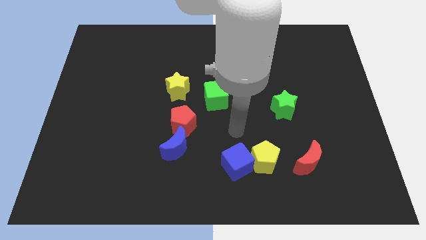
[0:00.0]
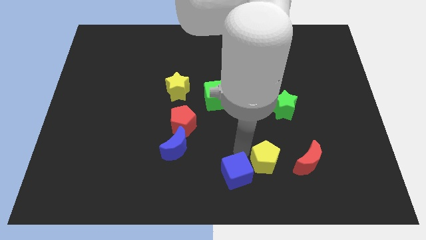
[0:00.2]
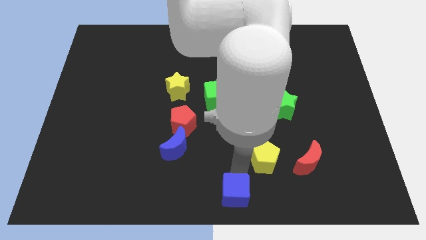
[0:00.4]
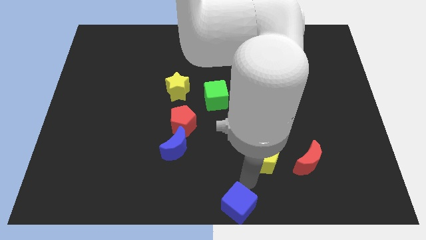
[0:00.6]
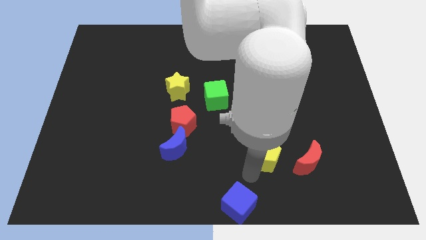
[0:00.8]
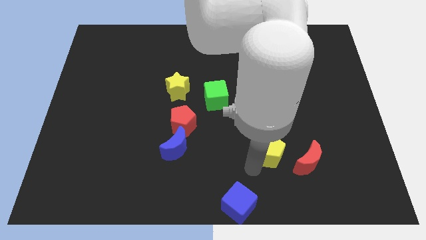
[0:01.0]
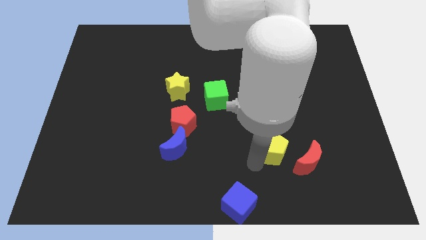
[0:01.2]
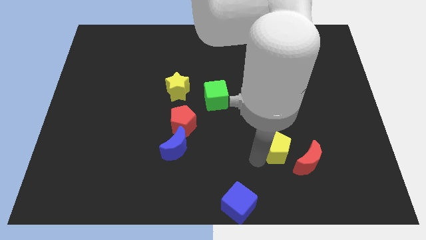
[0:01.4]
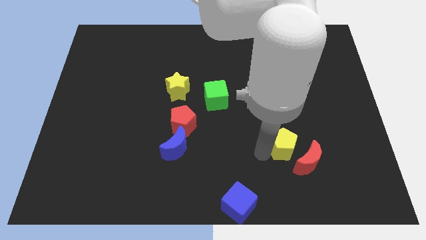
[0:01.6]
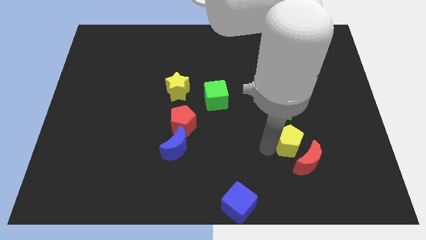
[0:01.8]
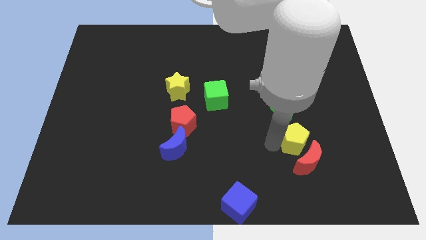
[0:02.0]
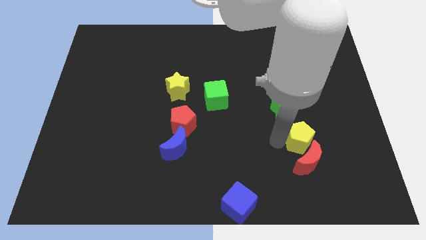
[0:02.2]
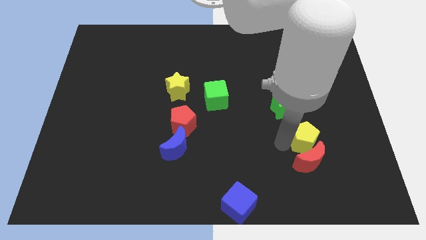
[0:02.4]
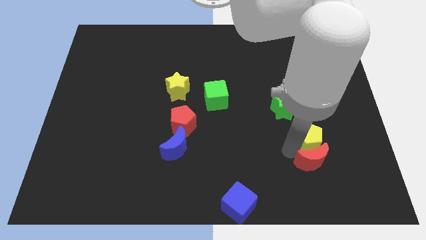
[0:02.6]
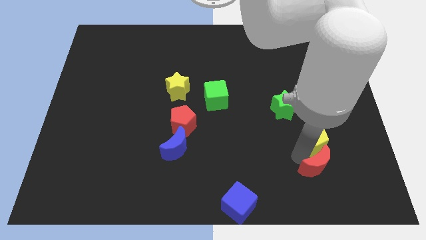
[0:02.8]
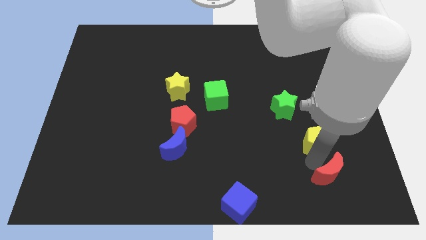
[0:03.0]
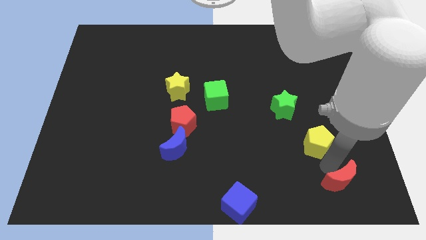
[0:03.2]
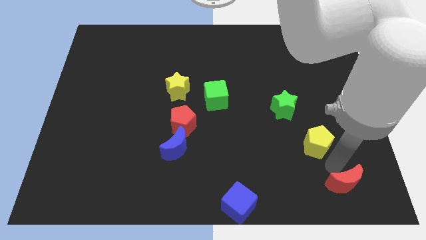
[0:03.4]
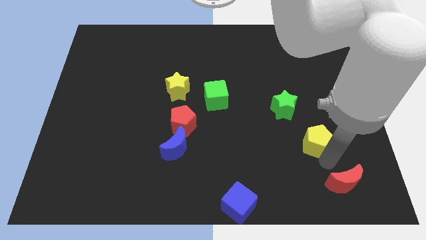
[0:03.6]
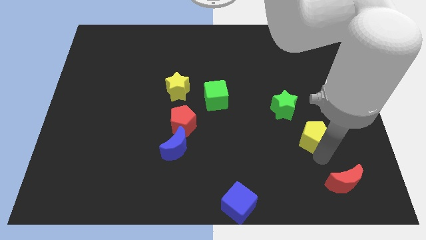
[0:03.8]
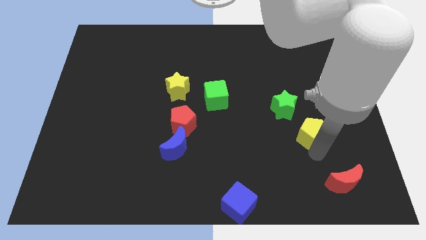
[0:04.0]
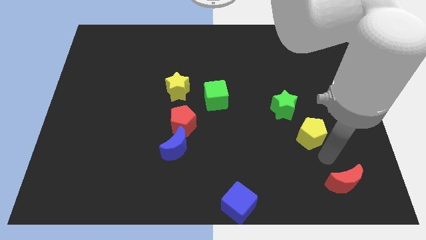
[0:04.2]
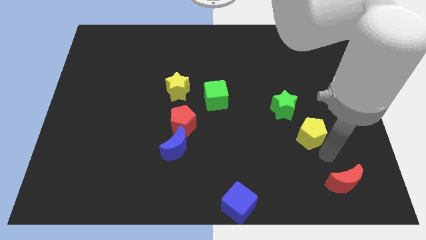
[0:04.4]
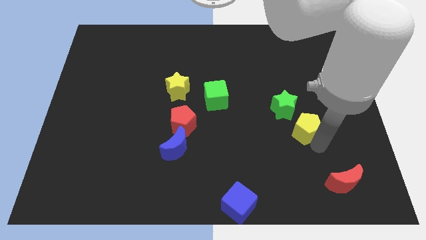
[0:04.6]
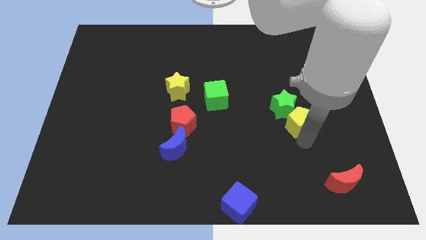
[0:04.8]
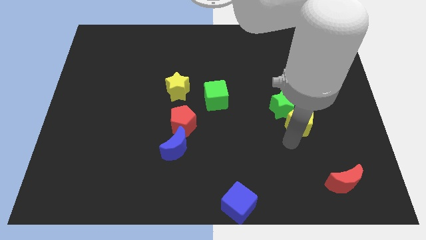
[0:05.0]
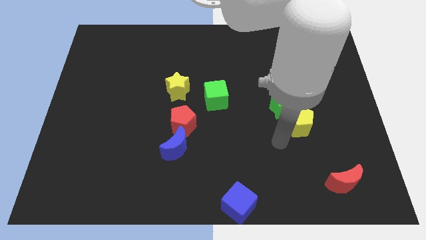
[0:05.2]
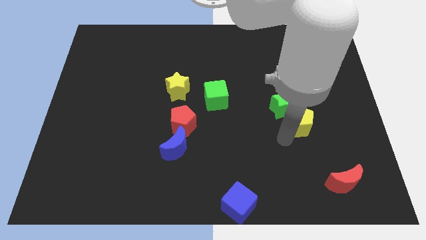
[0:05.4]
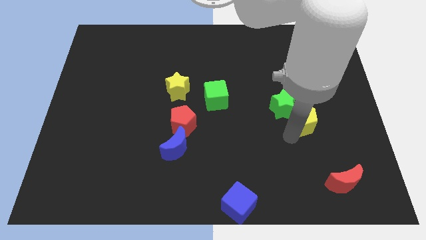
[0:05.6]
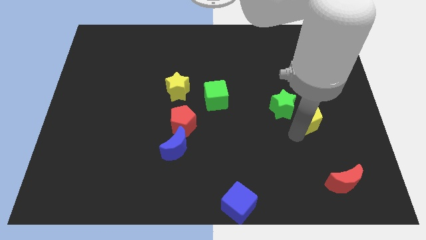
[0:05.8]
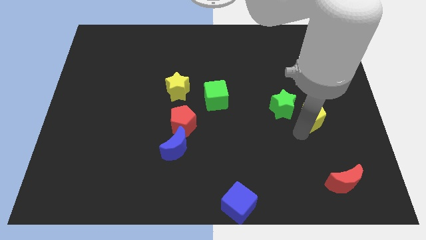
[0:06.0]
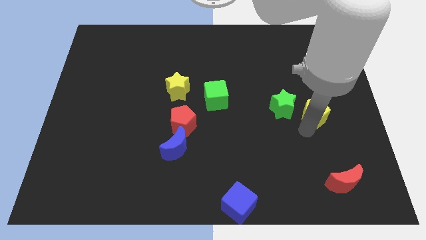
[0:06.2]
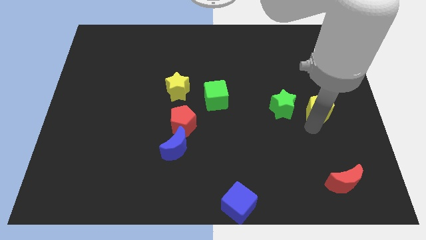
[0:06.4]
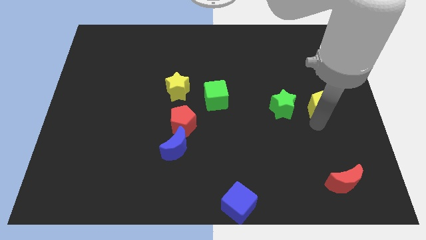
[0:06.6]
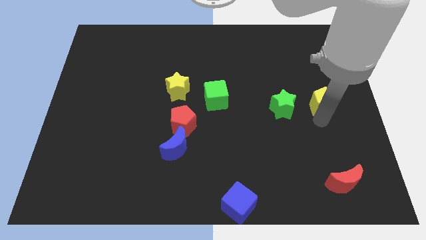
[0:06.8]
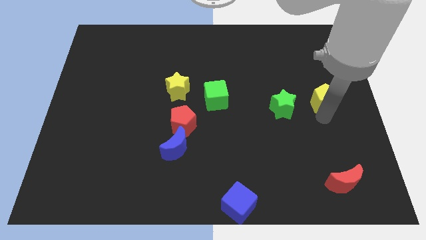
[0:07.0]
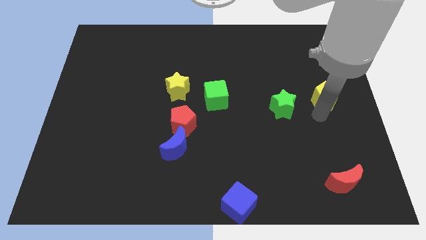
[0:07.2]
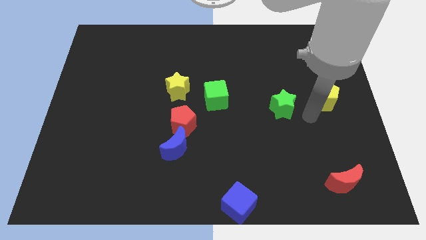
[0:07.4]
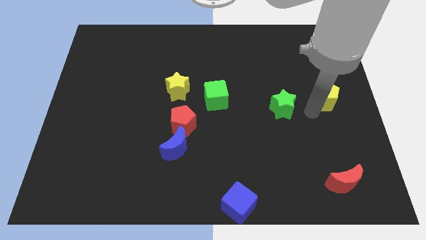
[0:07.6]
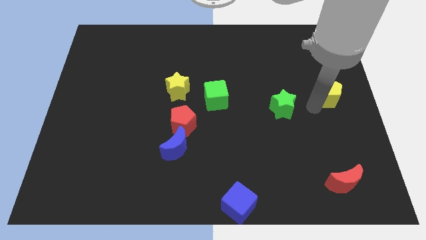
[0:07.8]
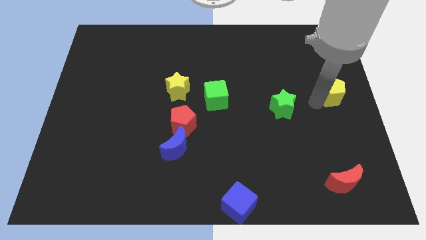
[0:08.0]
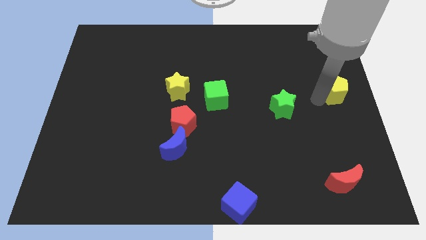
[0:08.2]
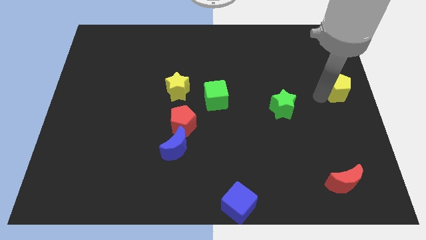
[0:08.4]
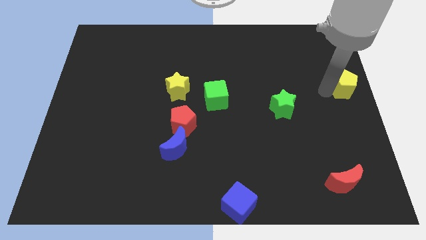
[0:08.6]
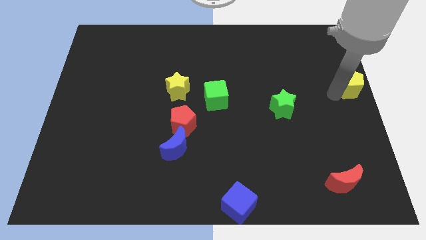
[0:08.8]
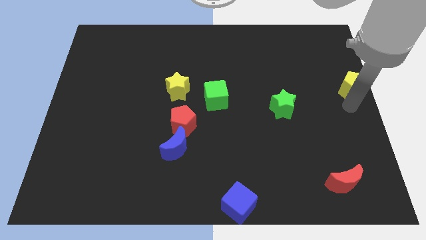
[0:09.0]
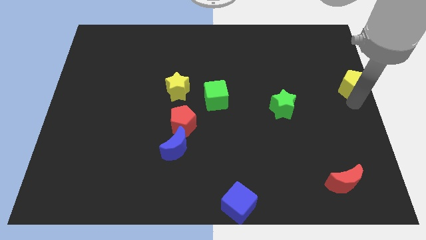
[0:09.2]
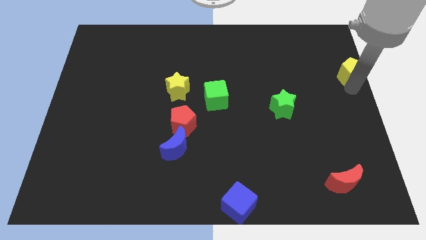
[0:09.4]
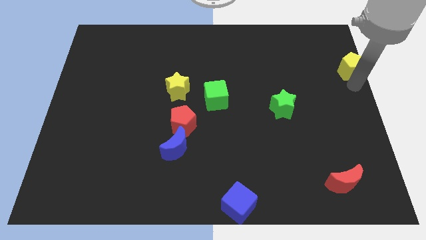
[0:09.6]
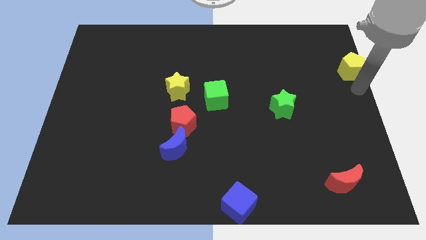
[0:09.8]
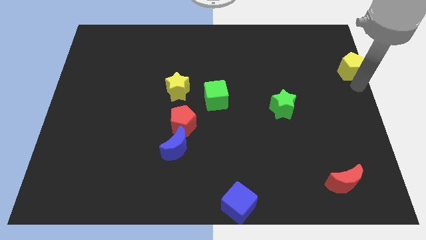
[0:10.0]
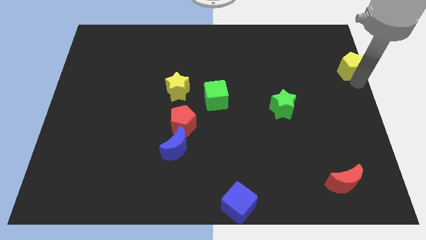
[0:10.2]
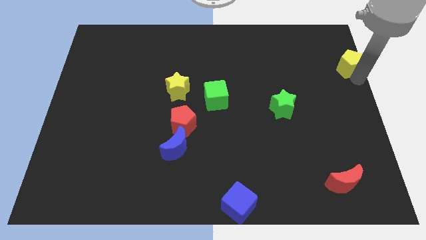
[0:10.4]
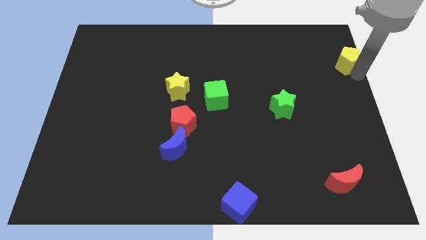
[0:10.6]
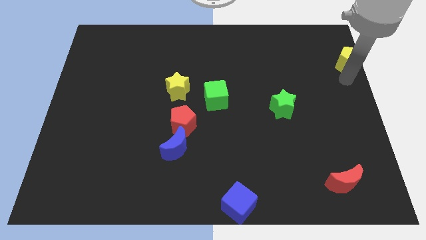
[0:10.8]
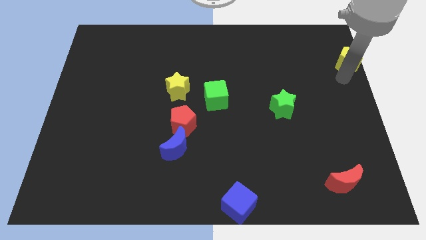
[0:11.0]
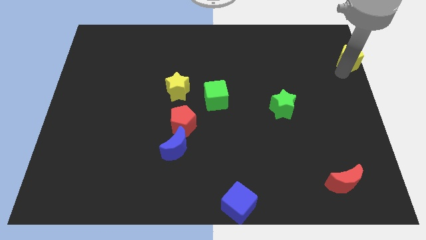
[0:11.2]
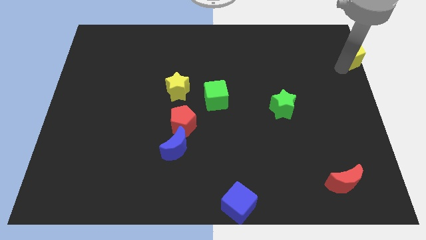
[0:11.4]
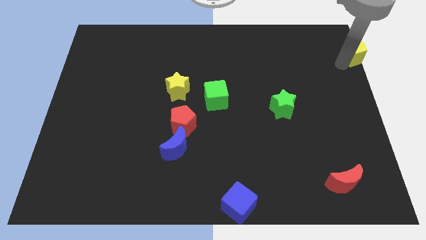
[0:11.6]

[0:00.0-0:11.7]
put the yellow pentagon to the top right corner

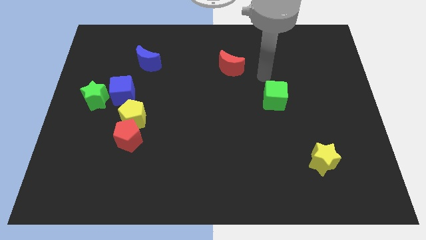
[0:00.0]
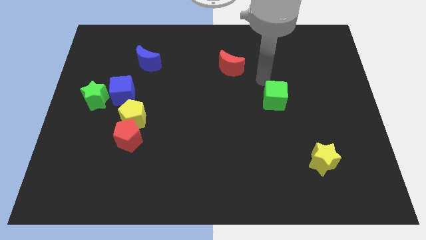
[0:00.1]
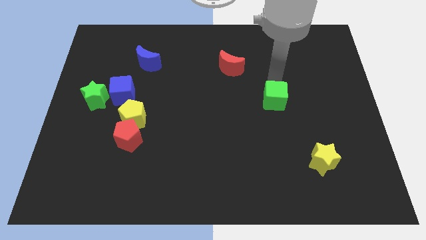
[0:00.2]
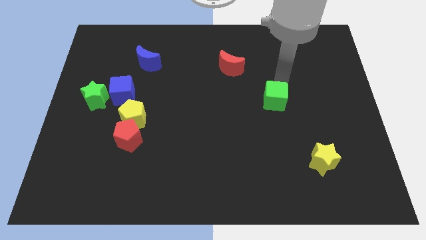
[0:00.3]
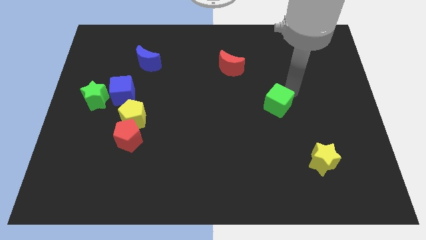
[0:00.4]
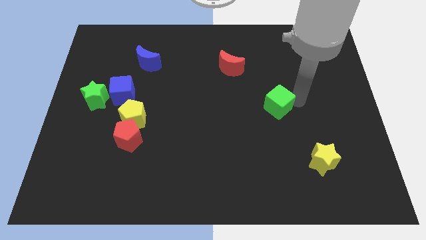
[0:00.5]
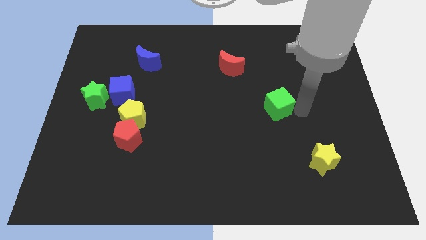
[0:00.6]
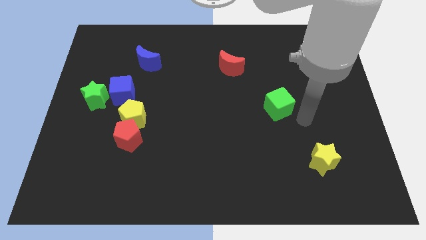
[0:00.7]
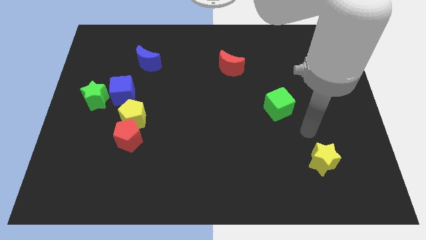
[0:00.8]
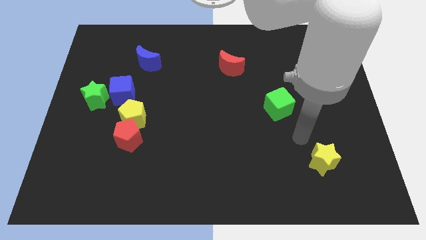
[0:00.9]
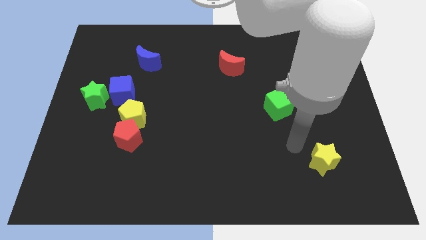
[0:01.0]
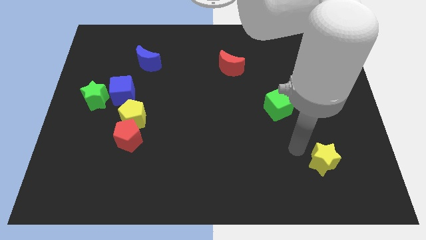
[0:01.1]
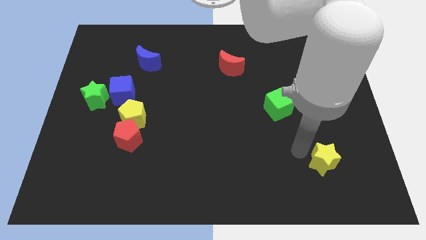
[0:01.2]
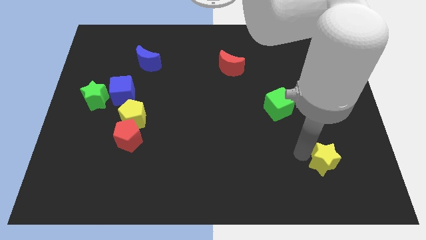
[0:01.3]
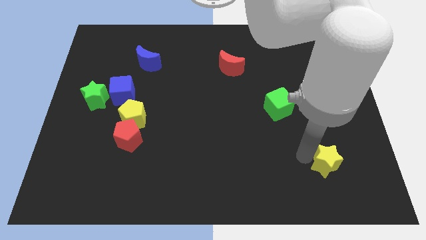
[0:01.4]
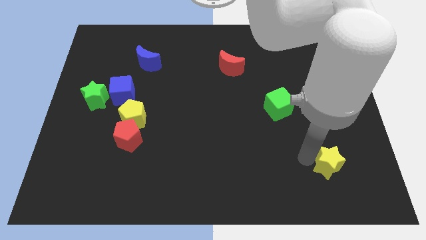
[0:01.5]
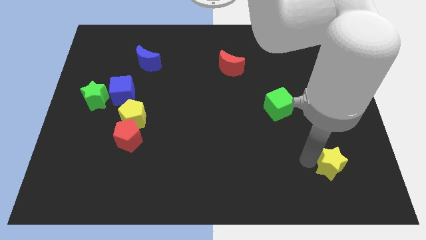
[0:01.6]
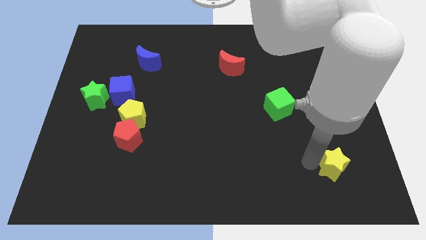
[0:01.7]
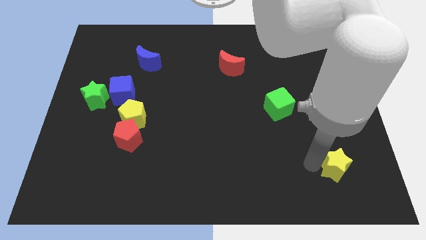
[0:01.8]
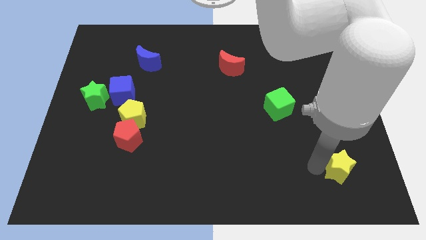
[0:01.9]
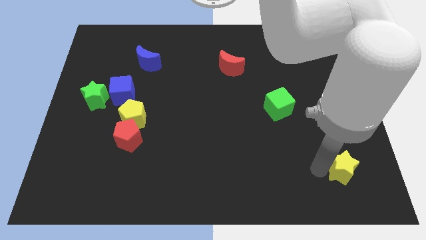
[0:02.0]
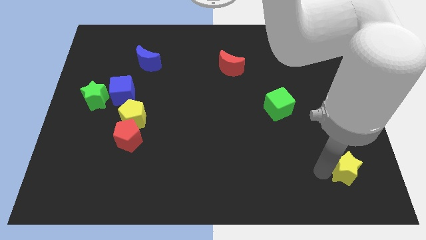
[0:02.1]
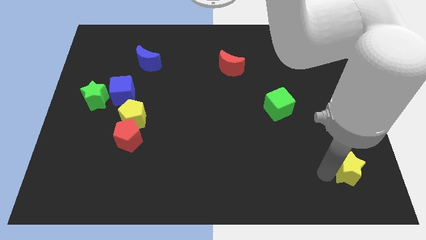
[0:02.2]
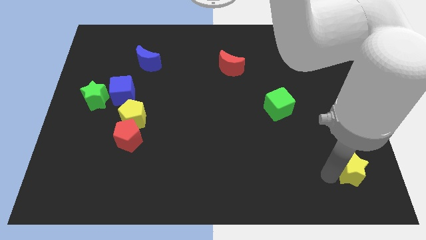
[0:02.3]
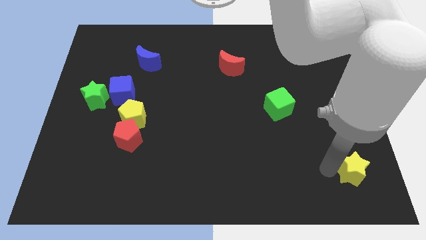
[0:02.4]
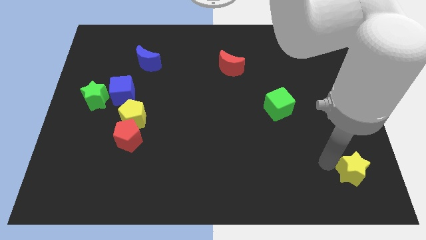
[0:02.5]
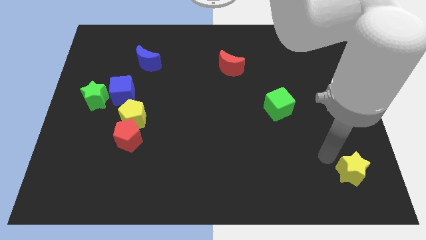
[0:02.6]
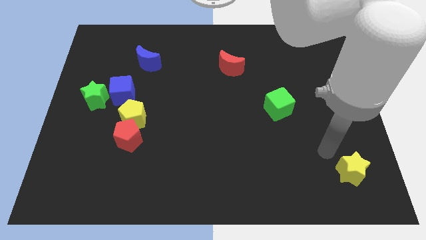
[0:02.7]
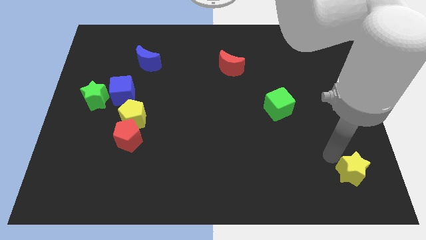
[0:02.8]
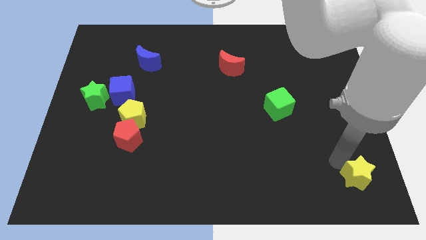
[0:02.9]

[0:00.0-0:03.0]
push the yellow star to the bottom right of the board
